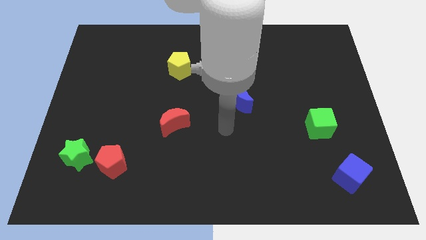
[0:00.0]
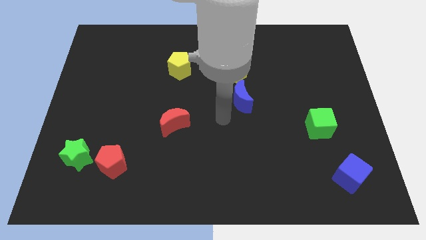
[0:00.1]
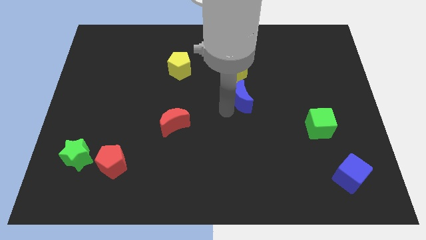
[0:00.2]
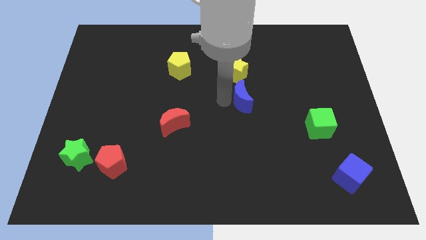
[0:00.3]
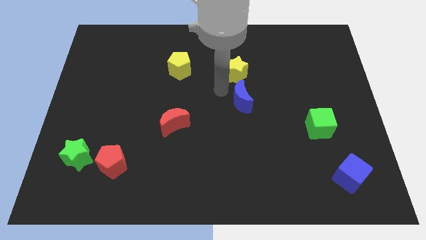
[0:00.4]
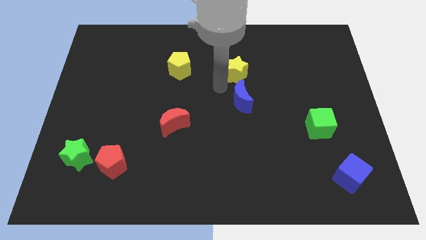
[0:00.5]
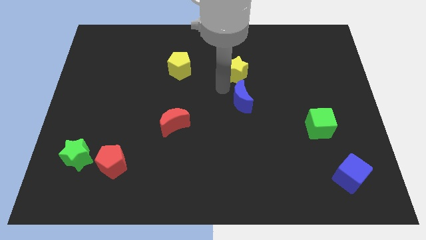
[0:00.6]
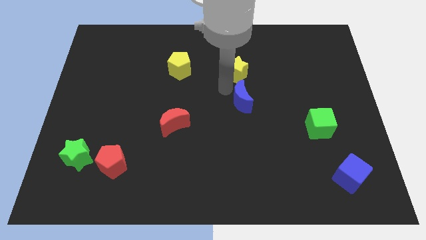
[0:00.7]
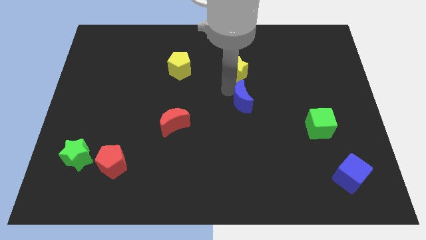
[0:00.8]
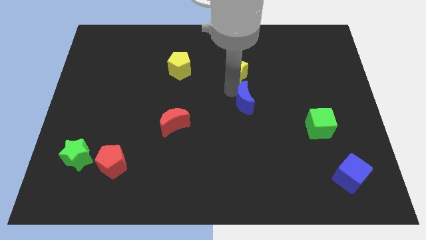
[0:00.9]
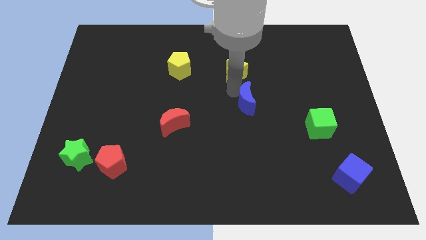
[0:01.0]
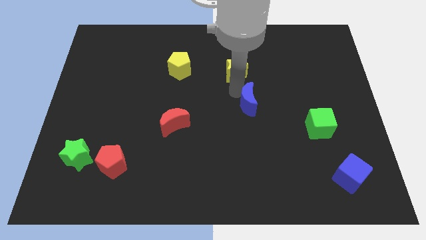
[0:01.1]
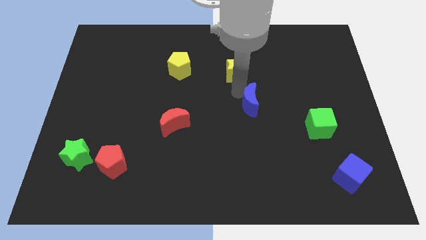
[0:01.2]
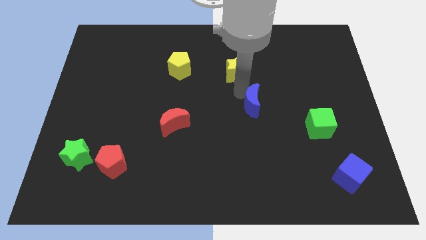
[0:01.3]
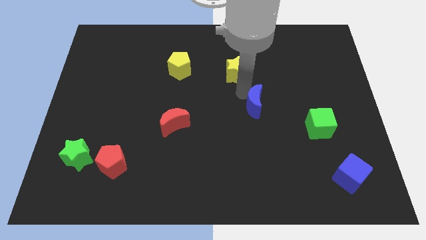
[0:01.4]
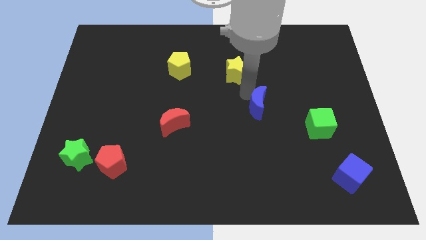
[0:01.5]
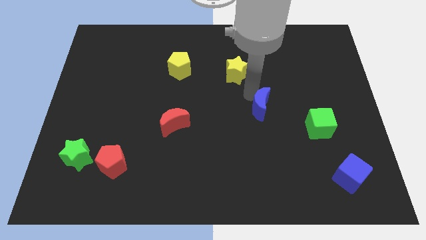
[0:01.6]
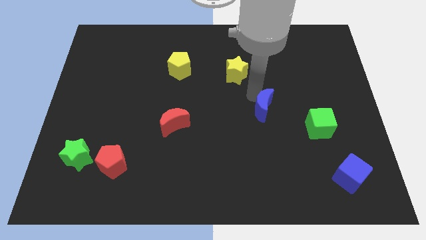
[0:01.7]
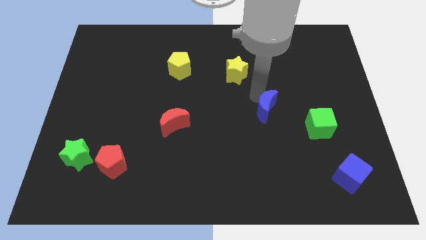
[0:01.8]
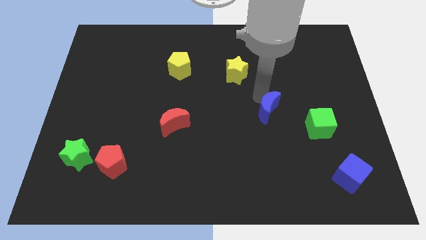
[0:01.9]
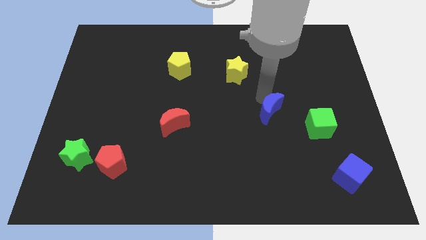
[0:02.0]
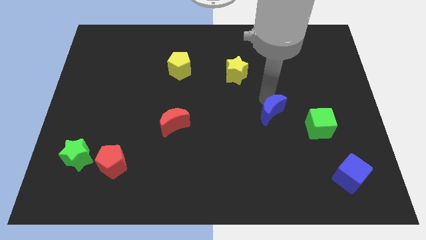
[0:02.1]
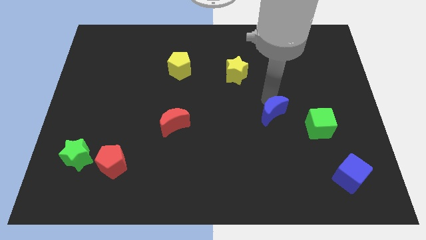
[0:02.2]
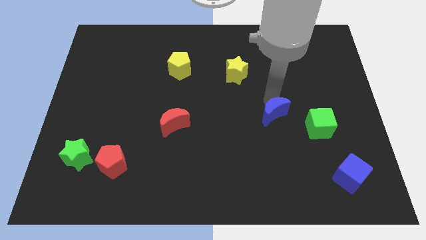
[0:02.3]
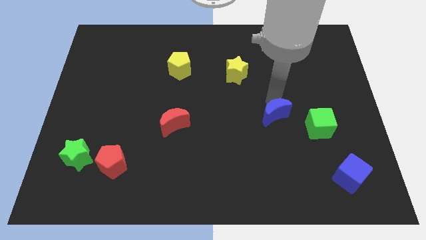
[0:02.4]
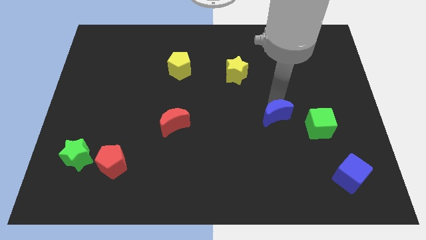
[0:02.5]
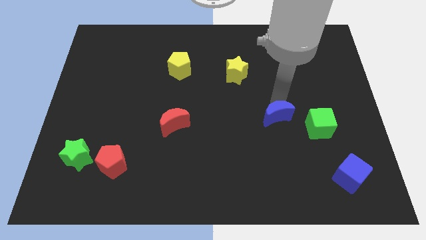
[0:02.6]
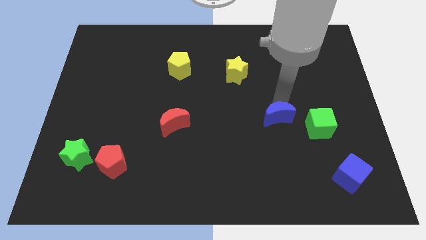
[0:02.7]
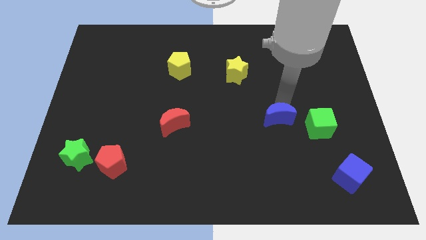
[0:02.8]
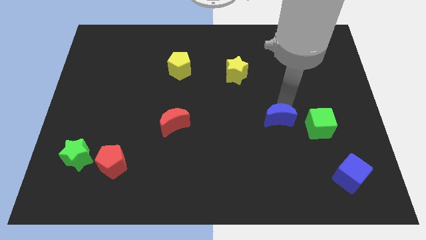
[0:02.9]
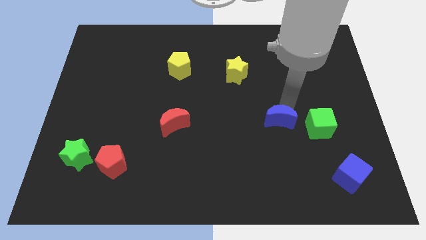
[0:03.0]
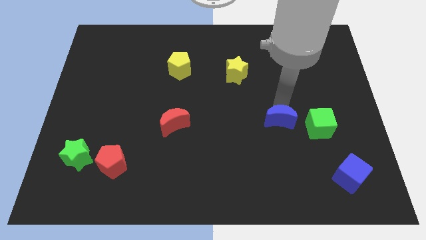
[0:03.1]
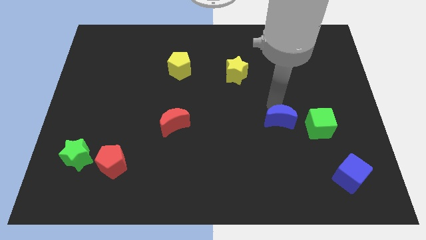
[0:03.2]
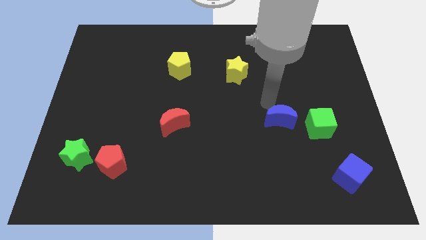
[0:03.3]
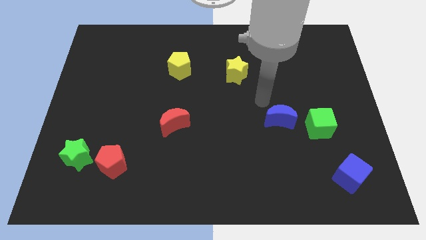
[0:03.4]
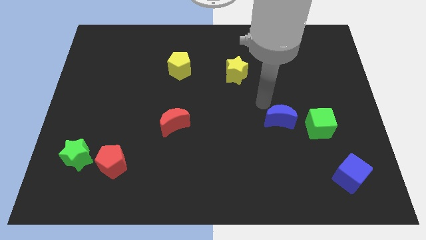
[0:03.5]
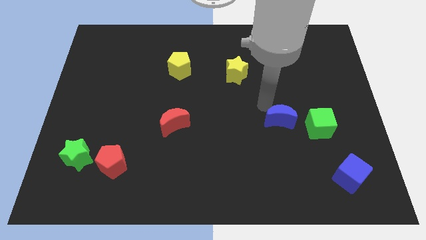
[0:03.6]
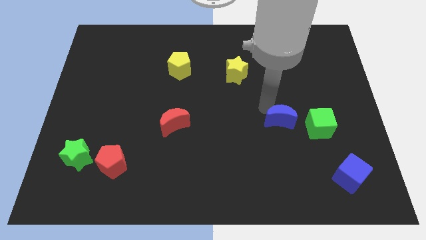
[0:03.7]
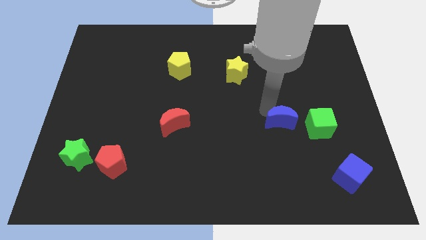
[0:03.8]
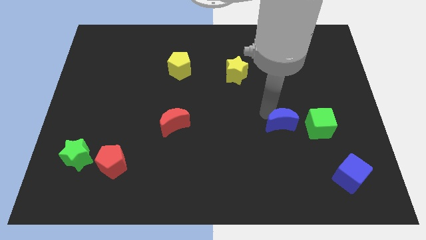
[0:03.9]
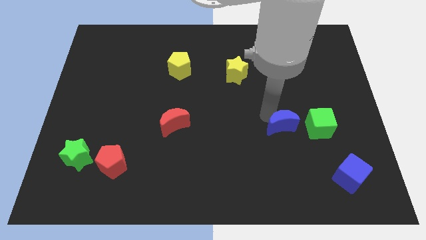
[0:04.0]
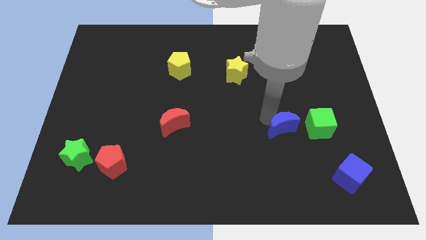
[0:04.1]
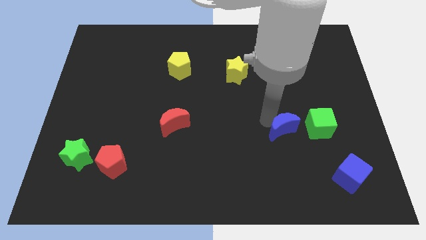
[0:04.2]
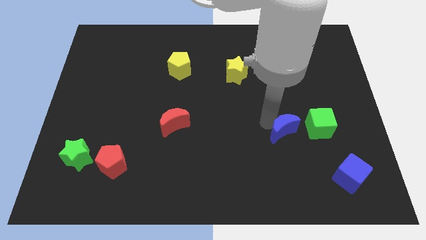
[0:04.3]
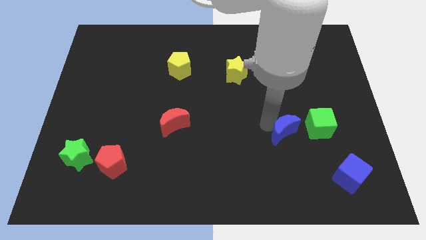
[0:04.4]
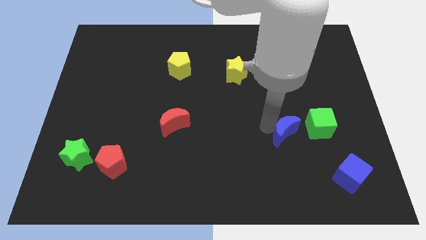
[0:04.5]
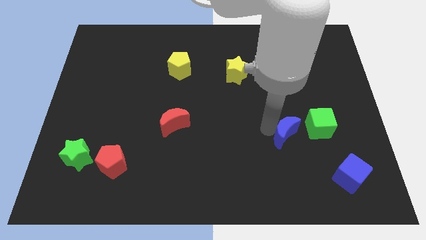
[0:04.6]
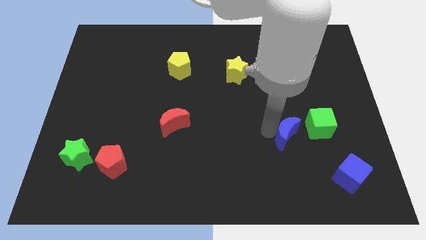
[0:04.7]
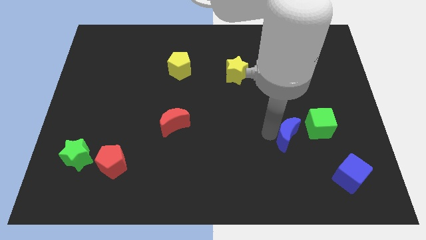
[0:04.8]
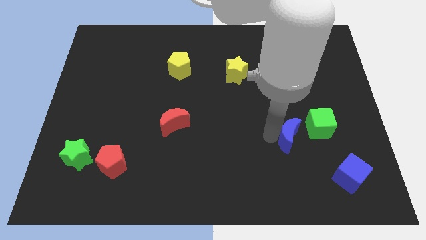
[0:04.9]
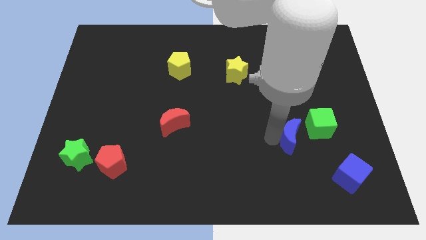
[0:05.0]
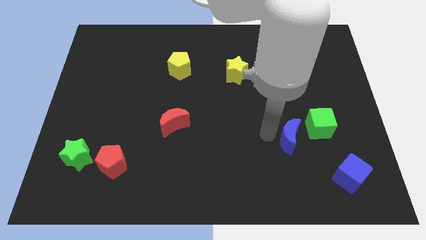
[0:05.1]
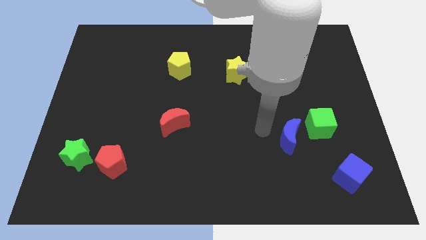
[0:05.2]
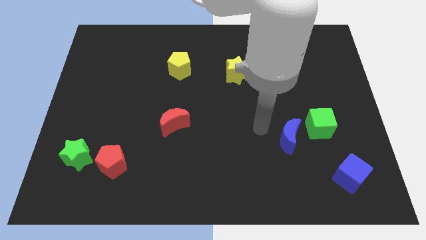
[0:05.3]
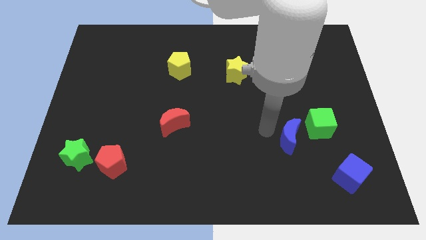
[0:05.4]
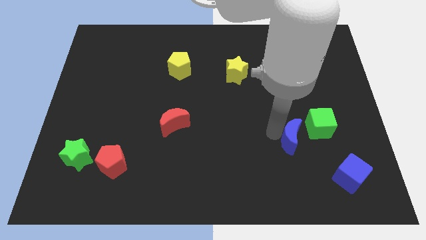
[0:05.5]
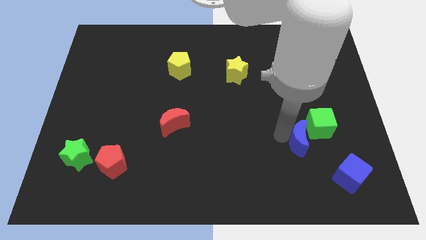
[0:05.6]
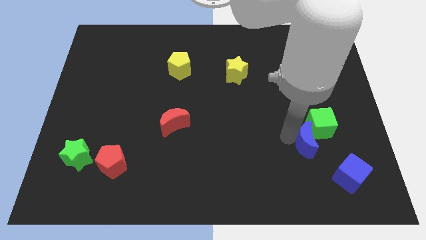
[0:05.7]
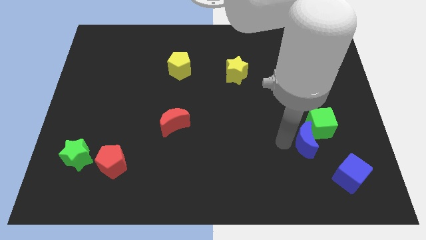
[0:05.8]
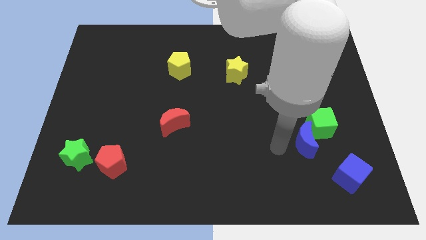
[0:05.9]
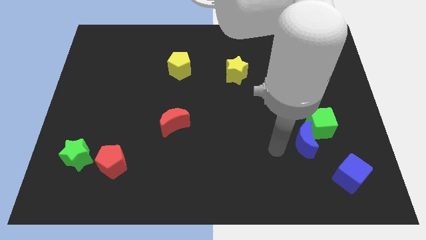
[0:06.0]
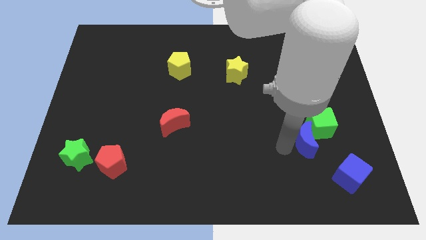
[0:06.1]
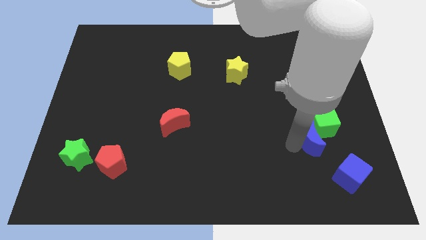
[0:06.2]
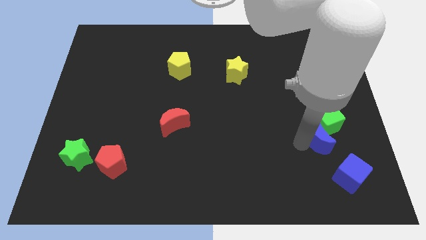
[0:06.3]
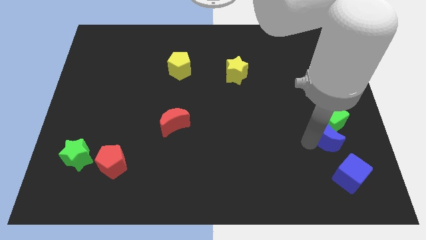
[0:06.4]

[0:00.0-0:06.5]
move the blue moon above the blue cube

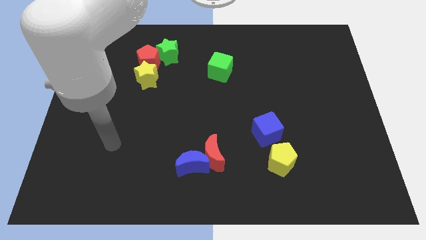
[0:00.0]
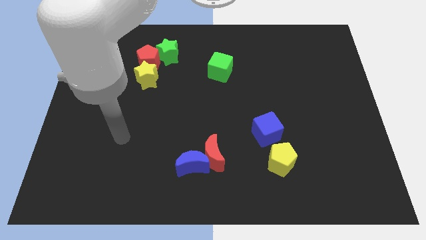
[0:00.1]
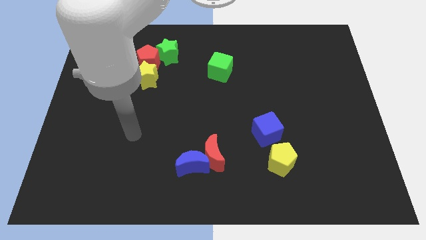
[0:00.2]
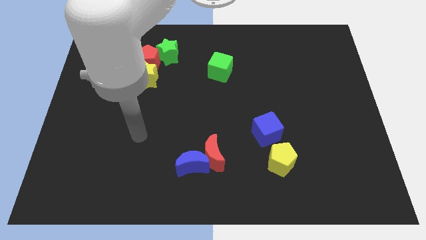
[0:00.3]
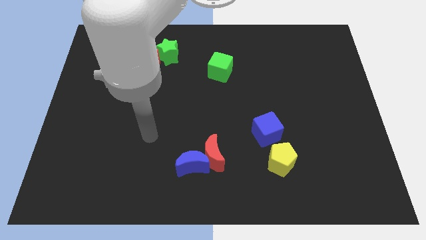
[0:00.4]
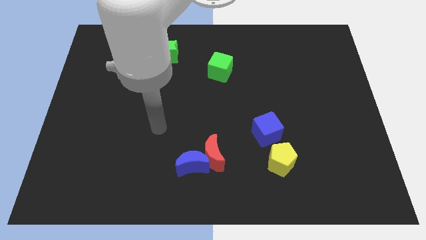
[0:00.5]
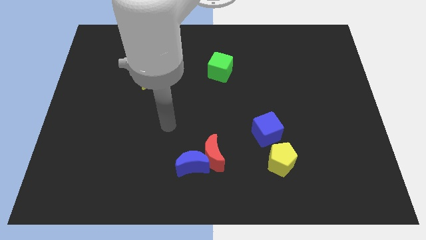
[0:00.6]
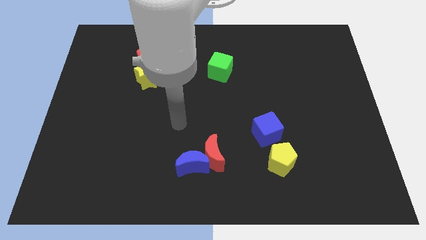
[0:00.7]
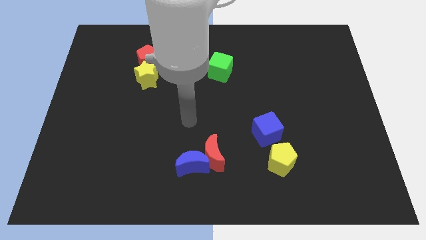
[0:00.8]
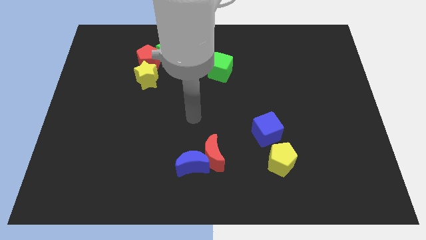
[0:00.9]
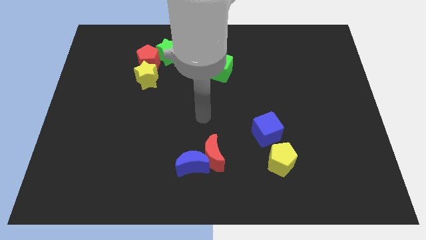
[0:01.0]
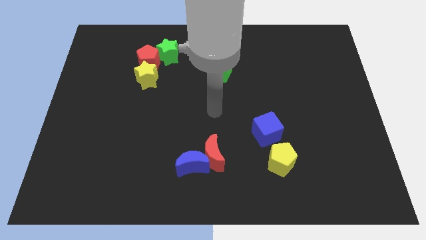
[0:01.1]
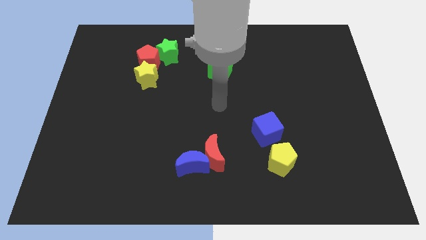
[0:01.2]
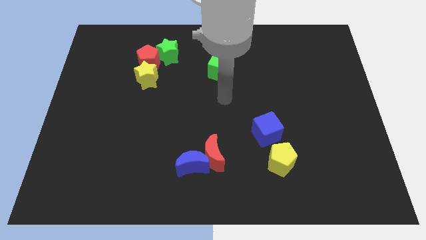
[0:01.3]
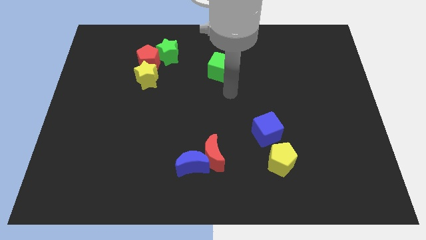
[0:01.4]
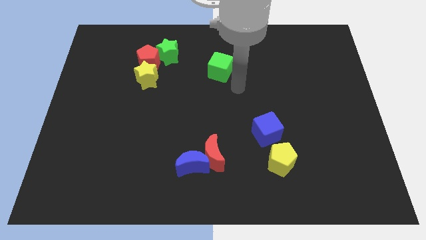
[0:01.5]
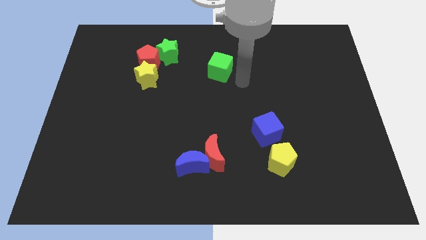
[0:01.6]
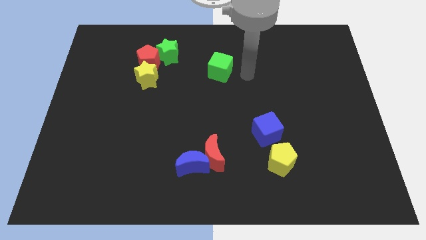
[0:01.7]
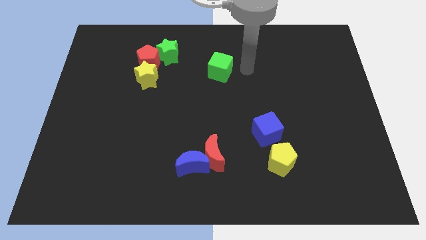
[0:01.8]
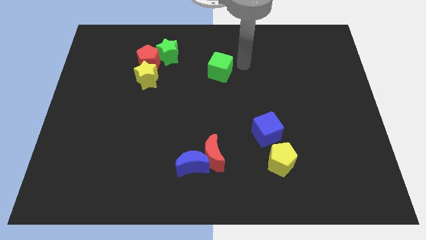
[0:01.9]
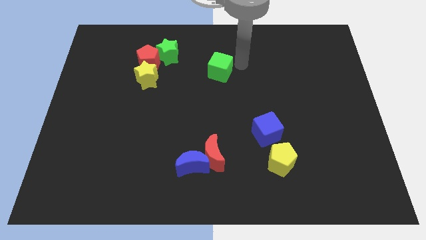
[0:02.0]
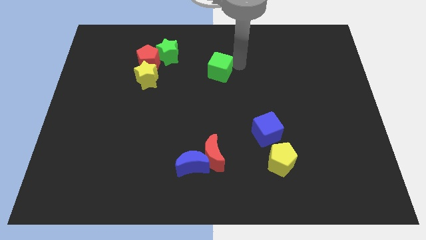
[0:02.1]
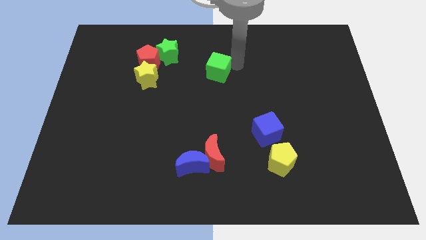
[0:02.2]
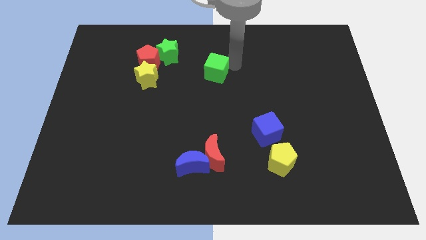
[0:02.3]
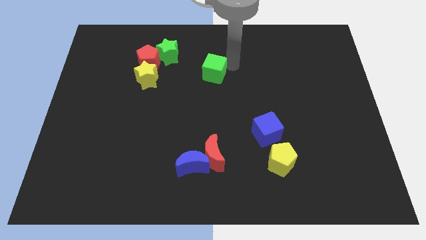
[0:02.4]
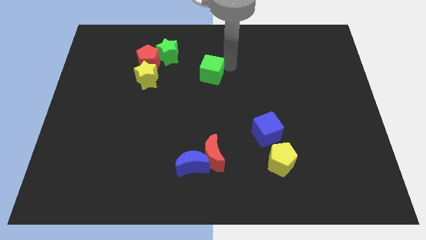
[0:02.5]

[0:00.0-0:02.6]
put the green cube to the right of the yellow star
